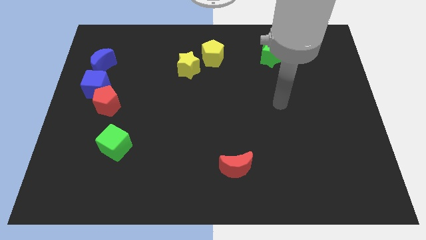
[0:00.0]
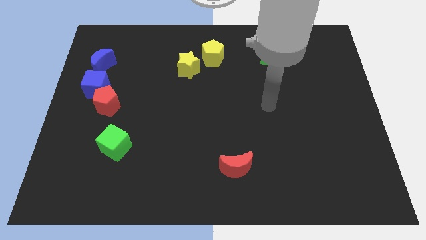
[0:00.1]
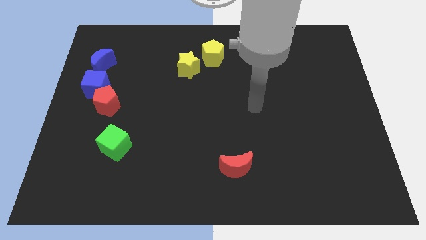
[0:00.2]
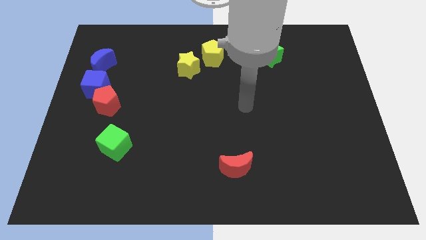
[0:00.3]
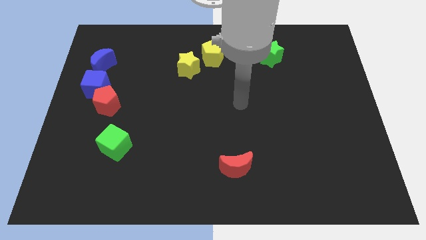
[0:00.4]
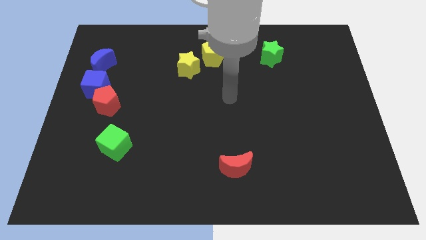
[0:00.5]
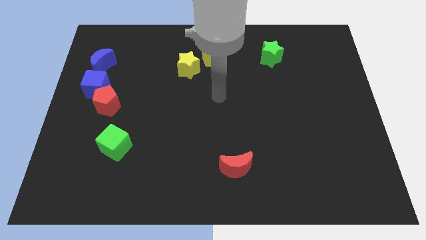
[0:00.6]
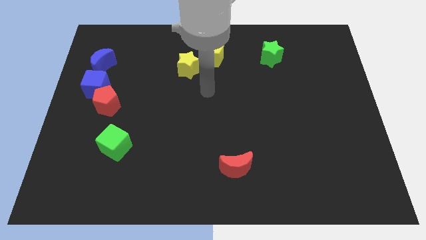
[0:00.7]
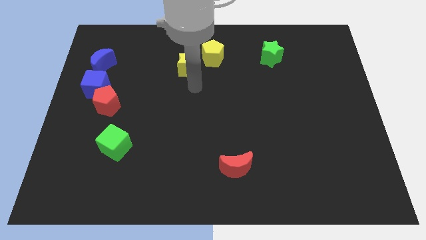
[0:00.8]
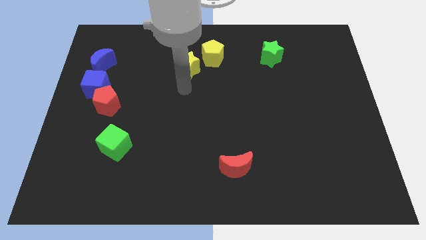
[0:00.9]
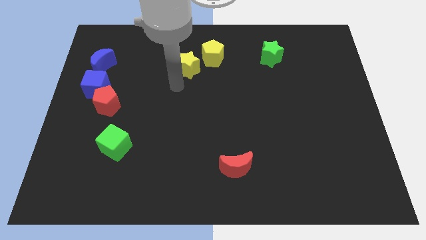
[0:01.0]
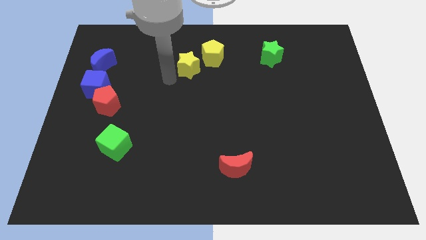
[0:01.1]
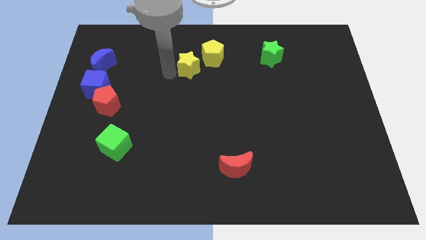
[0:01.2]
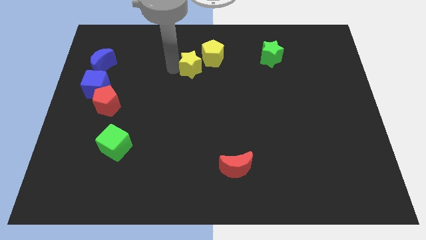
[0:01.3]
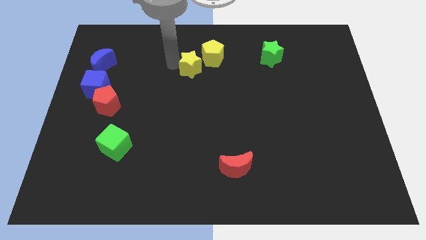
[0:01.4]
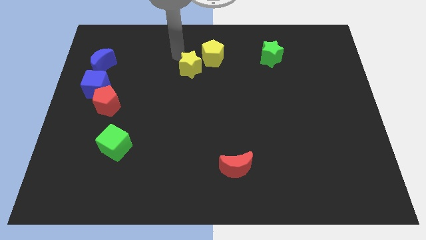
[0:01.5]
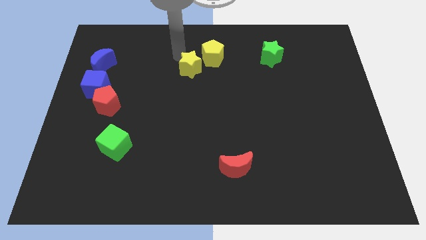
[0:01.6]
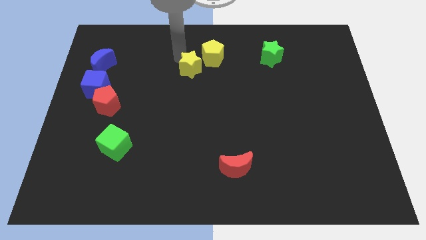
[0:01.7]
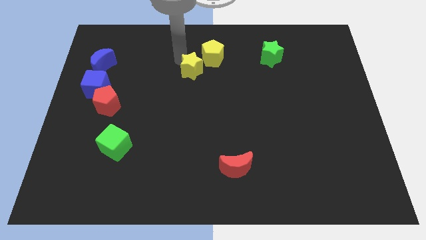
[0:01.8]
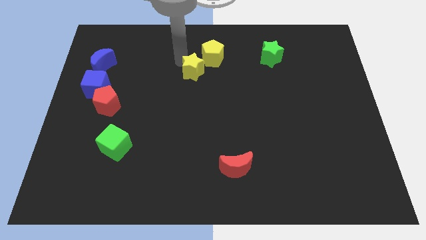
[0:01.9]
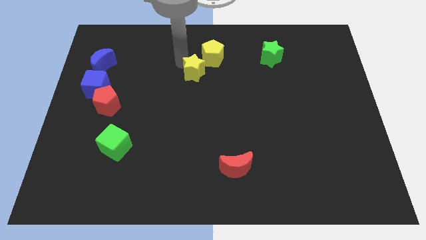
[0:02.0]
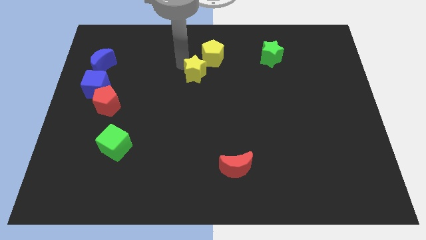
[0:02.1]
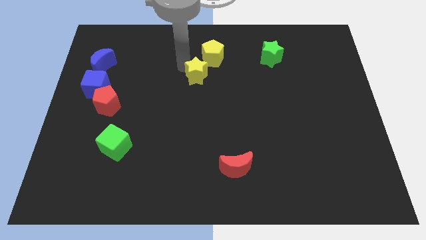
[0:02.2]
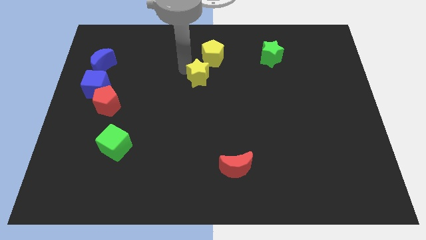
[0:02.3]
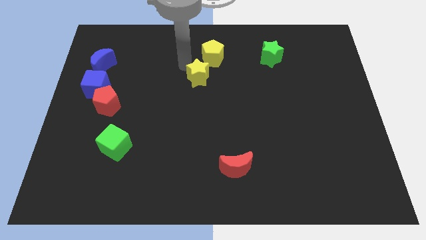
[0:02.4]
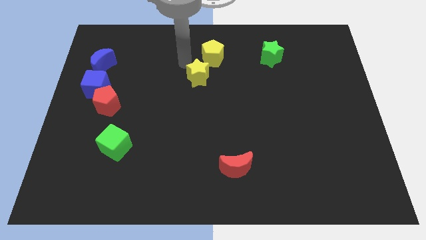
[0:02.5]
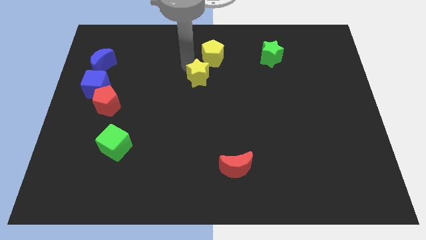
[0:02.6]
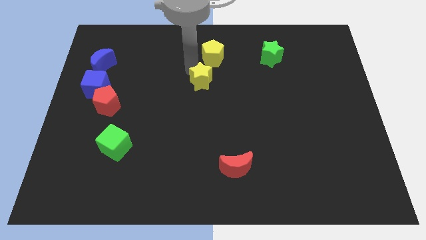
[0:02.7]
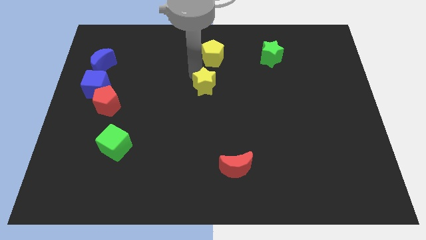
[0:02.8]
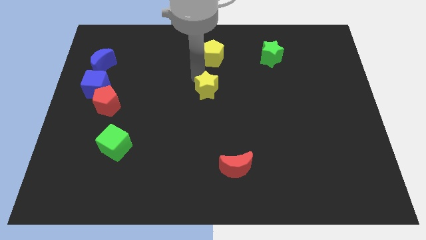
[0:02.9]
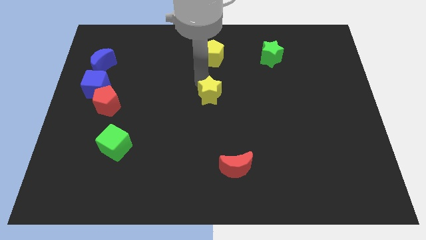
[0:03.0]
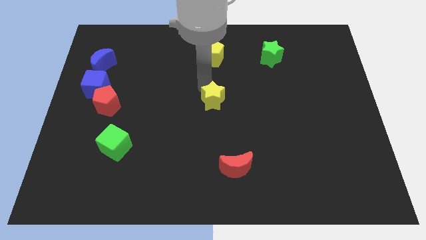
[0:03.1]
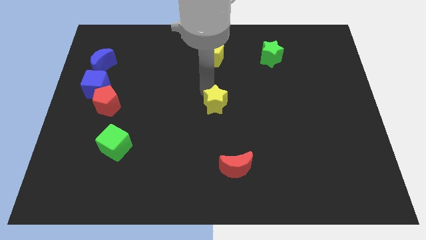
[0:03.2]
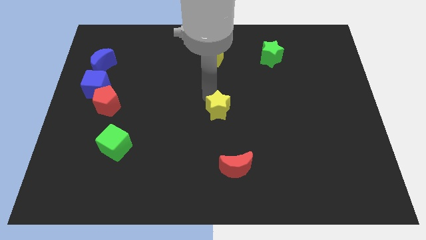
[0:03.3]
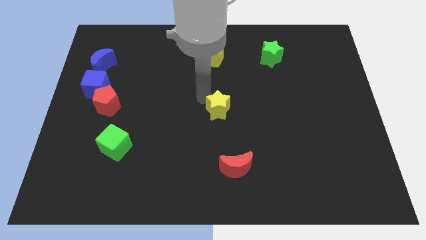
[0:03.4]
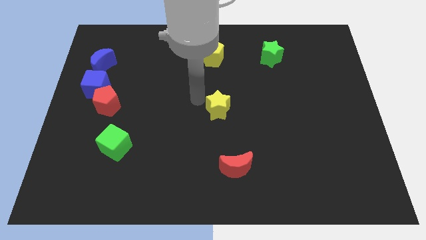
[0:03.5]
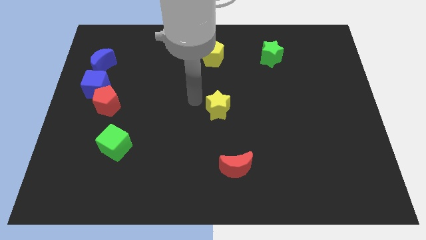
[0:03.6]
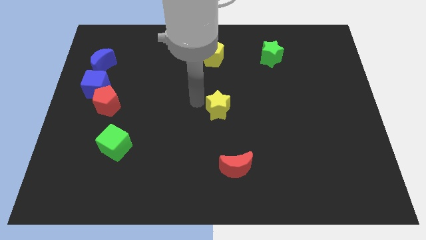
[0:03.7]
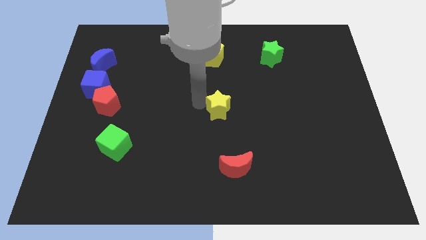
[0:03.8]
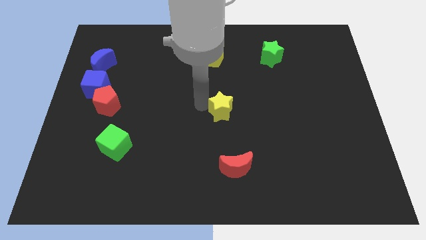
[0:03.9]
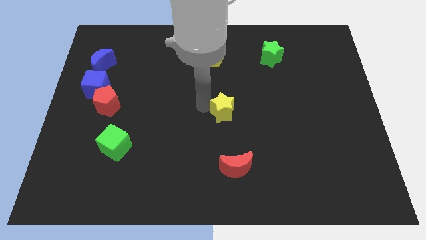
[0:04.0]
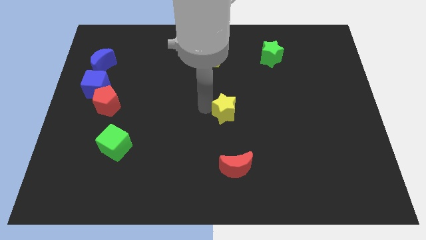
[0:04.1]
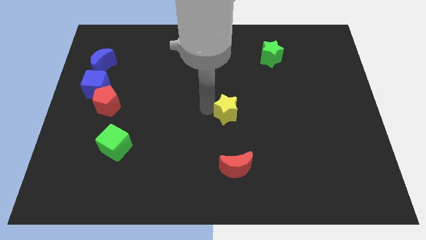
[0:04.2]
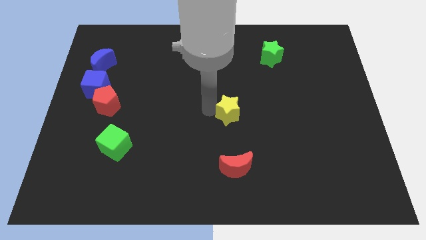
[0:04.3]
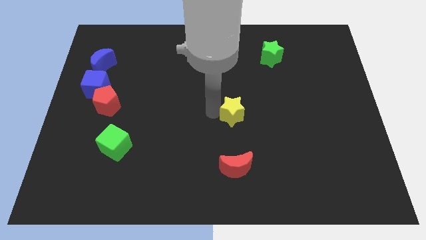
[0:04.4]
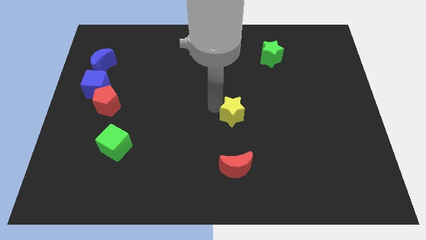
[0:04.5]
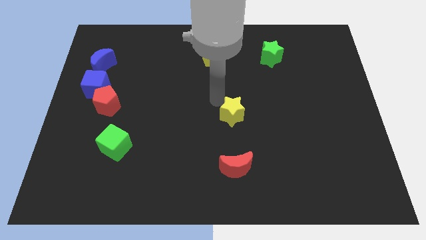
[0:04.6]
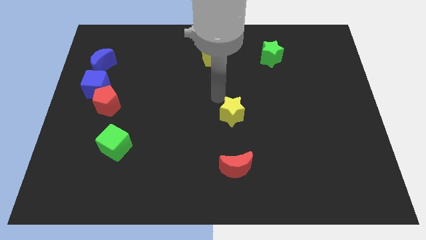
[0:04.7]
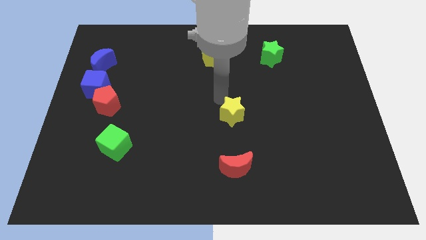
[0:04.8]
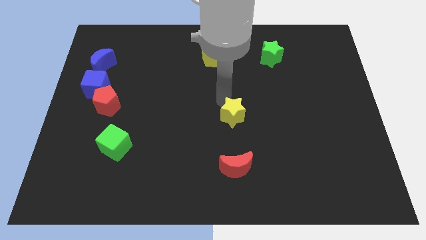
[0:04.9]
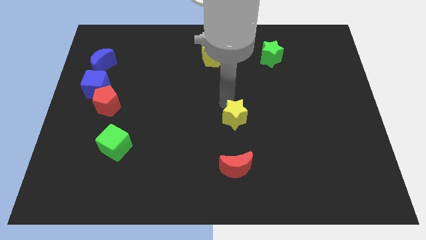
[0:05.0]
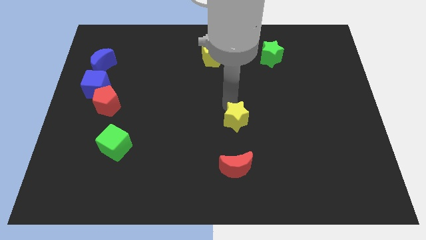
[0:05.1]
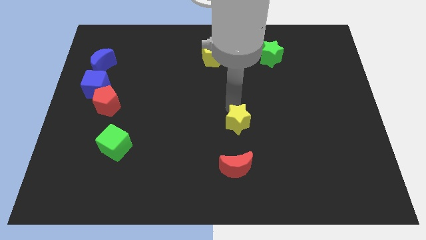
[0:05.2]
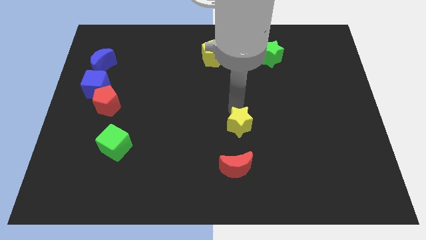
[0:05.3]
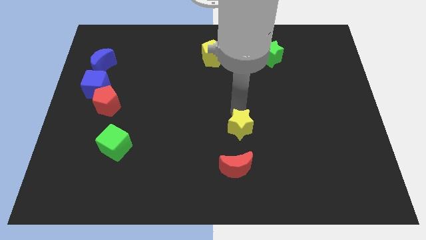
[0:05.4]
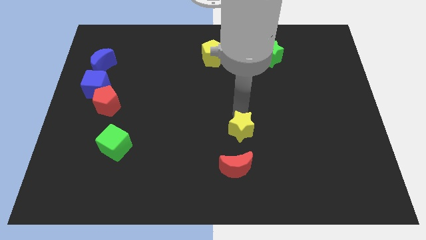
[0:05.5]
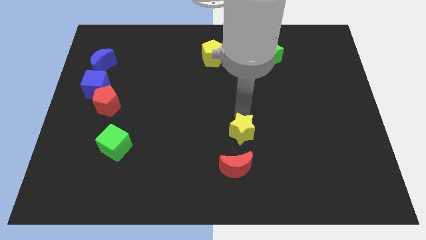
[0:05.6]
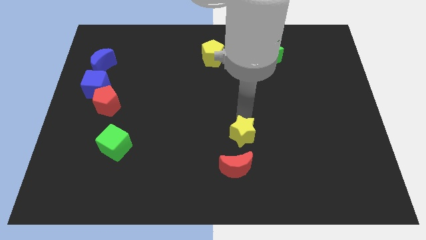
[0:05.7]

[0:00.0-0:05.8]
push the yellow star to the top right side of the red moon

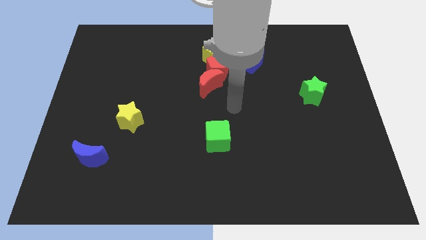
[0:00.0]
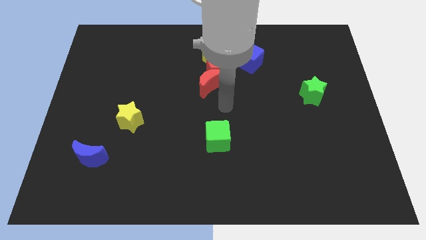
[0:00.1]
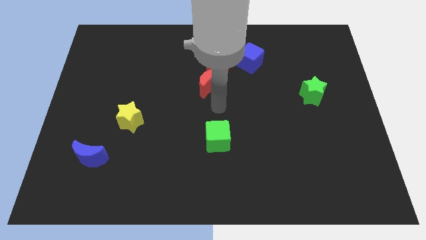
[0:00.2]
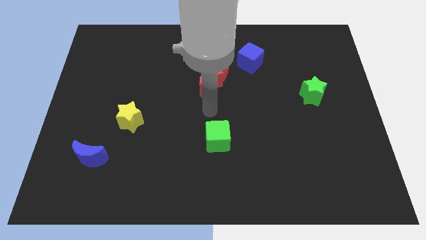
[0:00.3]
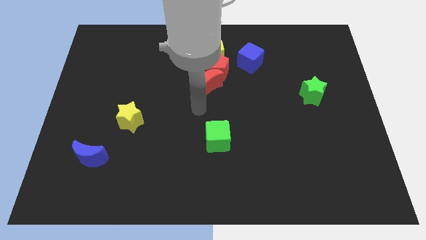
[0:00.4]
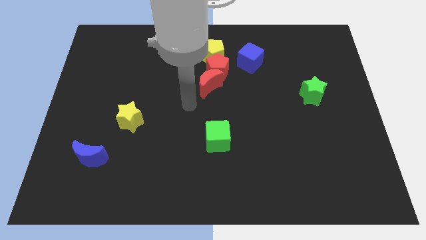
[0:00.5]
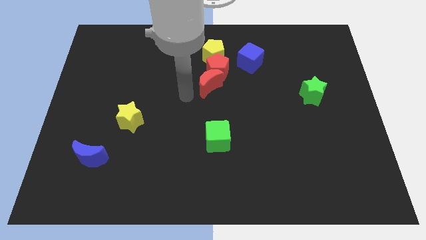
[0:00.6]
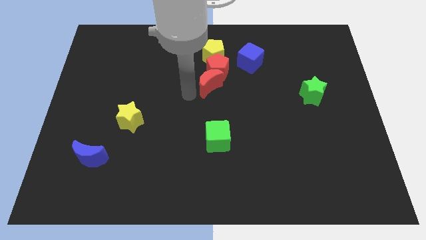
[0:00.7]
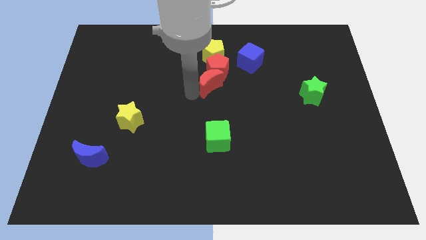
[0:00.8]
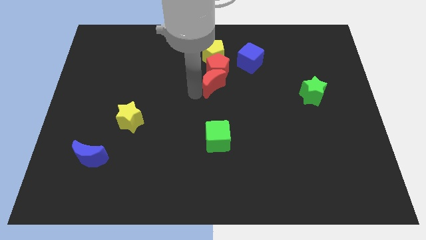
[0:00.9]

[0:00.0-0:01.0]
slide the red moon to the bottom left of the blue cube

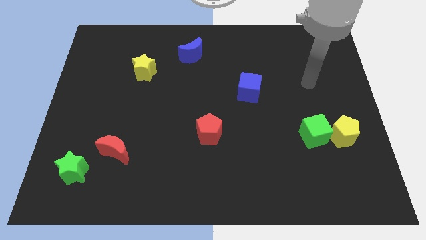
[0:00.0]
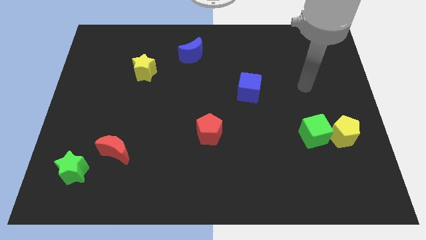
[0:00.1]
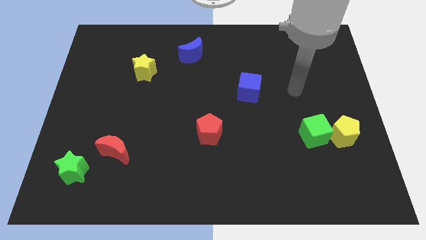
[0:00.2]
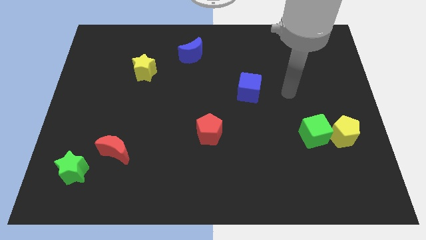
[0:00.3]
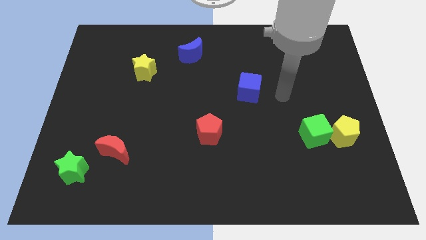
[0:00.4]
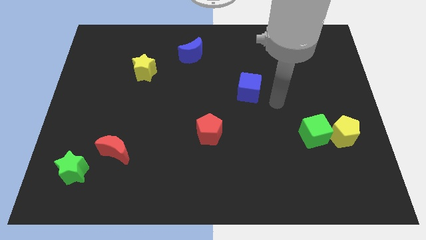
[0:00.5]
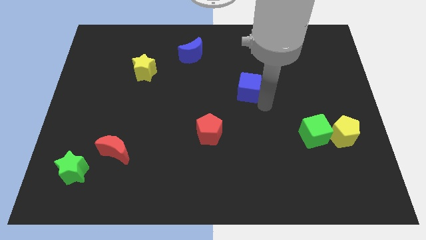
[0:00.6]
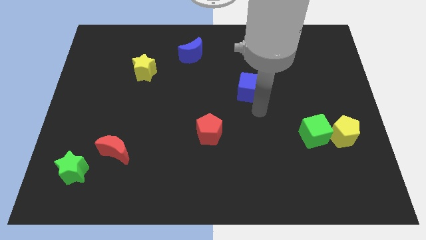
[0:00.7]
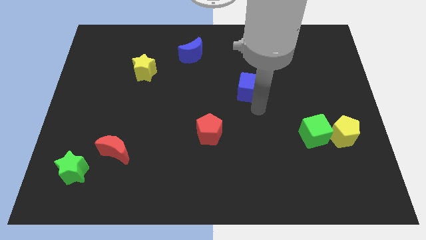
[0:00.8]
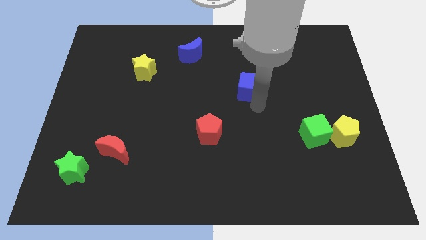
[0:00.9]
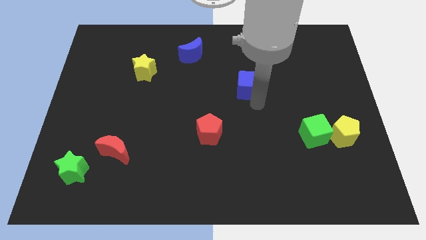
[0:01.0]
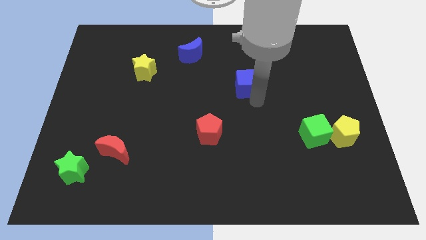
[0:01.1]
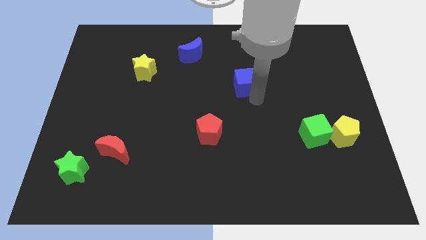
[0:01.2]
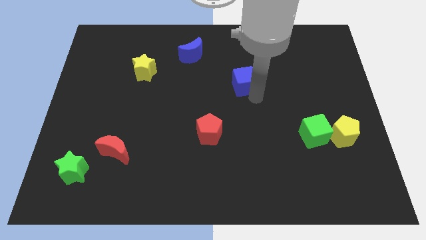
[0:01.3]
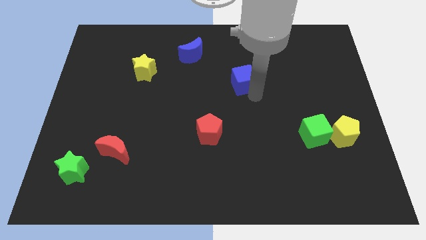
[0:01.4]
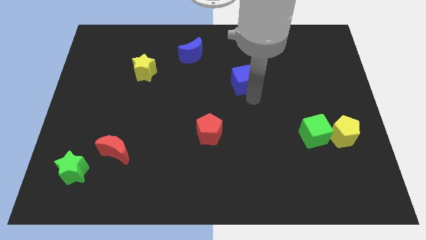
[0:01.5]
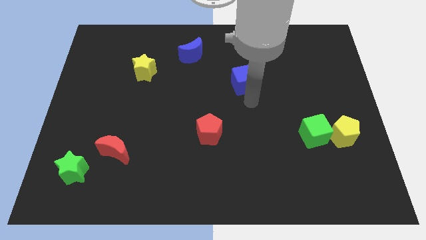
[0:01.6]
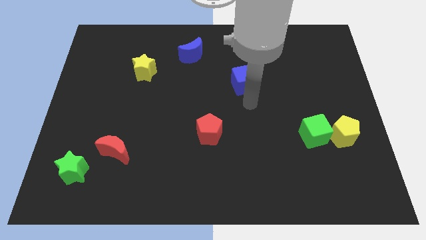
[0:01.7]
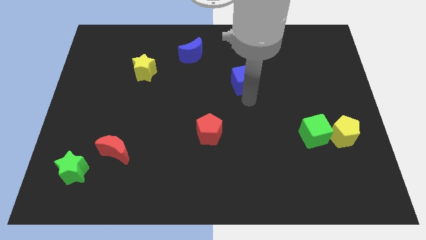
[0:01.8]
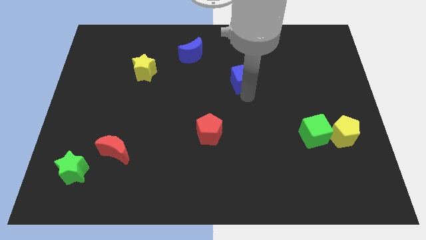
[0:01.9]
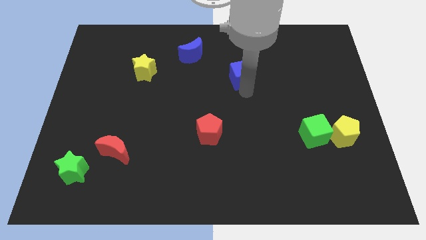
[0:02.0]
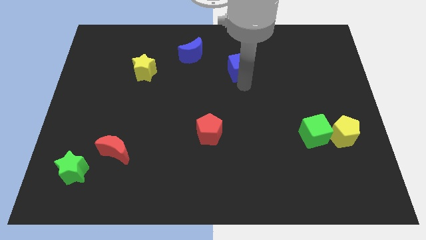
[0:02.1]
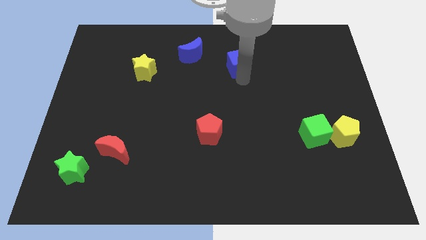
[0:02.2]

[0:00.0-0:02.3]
move the blue cube just right of the blue moon
